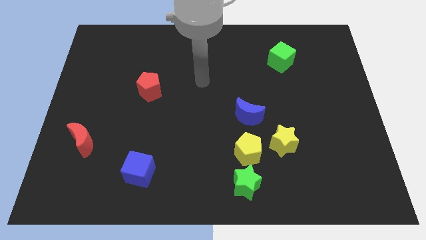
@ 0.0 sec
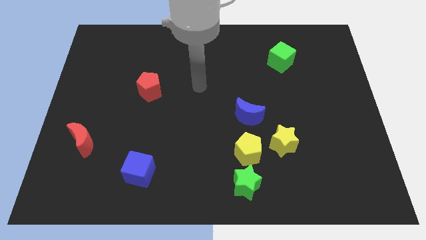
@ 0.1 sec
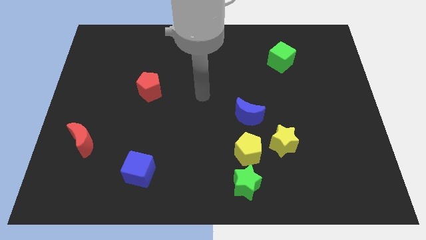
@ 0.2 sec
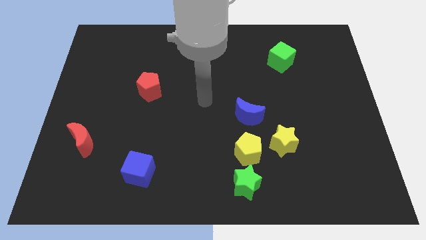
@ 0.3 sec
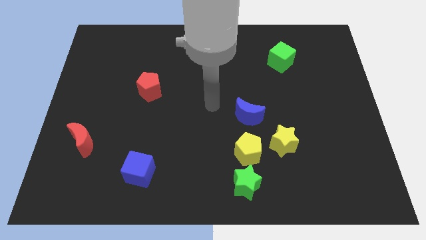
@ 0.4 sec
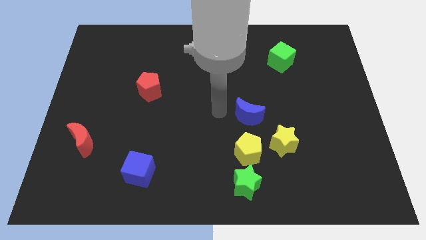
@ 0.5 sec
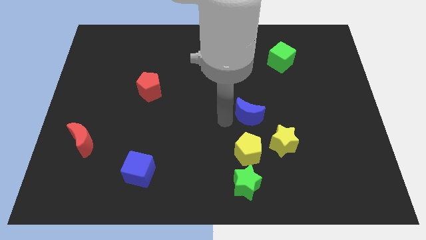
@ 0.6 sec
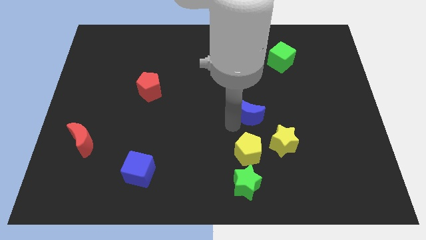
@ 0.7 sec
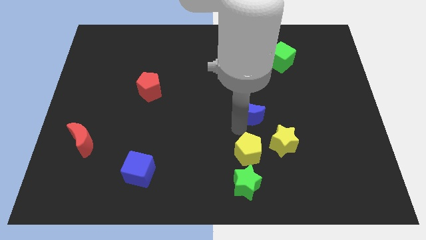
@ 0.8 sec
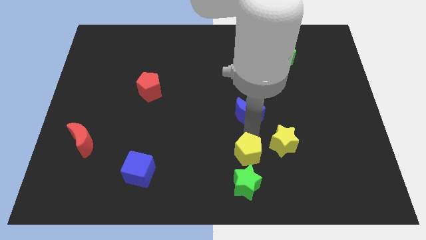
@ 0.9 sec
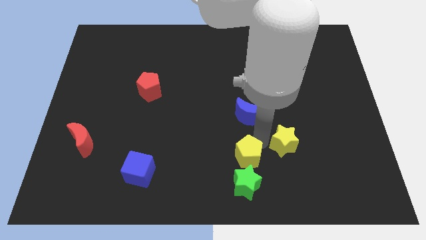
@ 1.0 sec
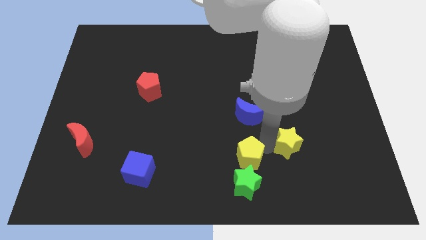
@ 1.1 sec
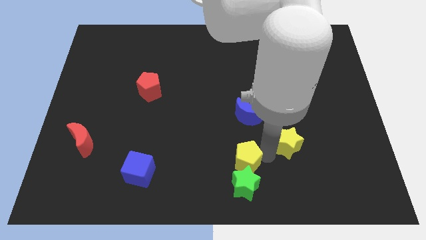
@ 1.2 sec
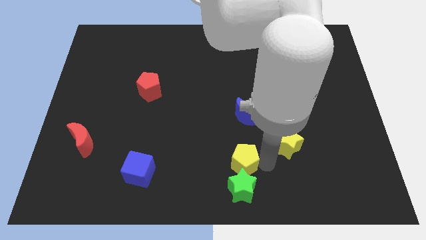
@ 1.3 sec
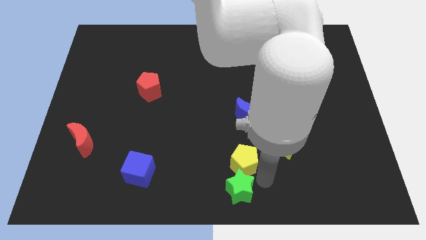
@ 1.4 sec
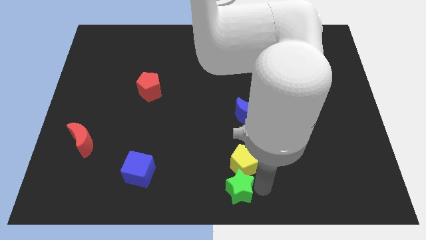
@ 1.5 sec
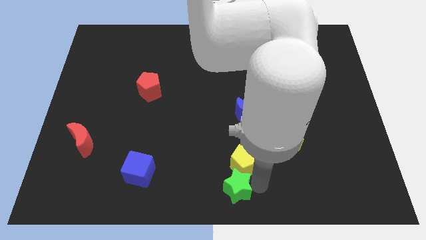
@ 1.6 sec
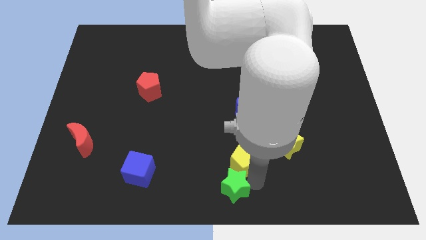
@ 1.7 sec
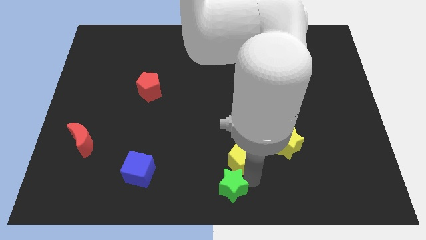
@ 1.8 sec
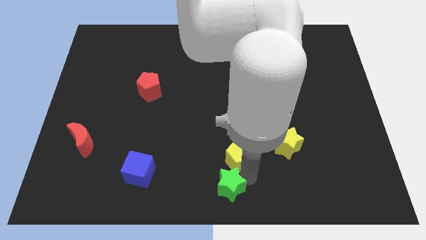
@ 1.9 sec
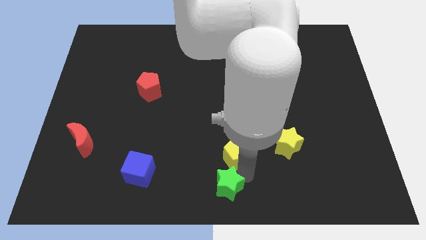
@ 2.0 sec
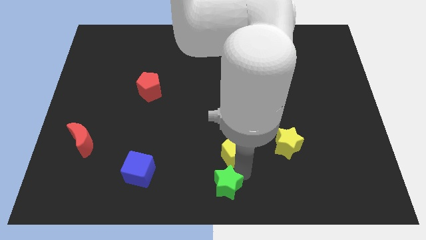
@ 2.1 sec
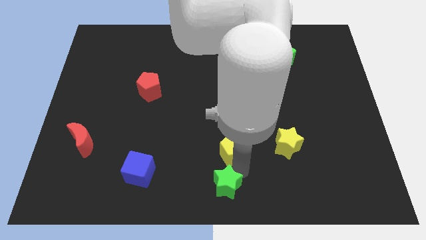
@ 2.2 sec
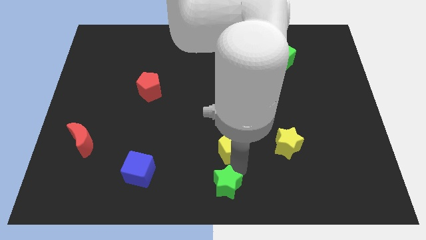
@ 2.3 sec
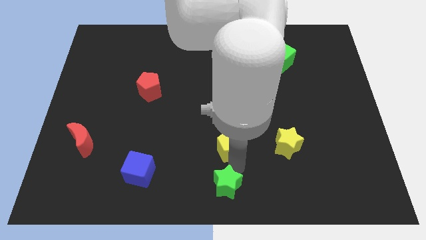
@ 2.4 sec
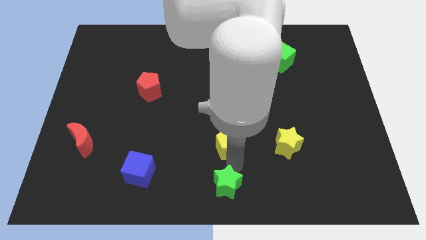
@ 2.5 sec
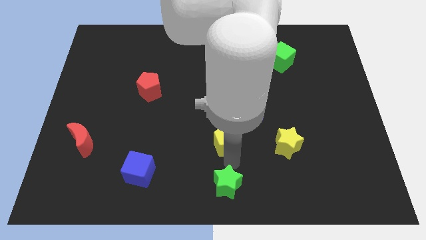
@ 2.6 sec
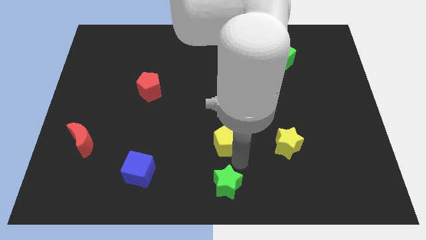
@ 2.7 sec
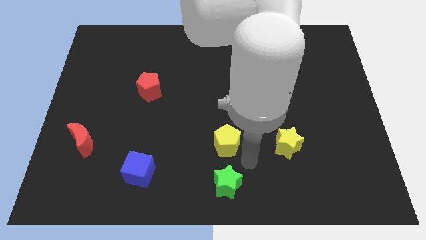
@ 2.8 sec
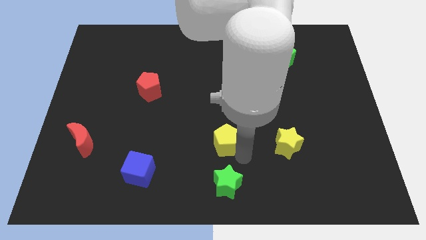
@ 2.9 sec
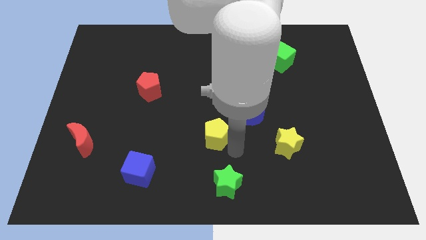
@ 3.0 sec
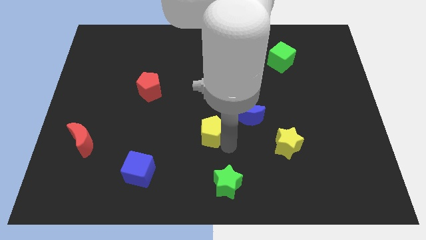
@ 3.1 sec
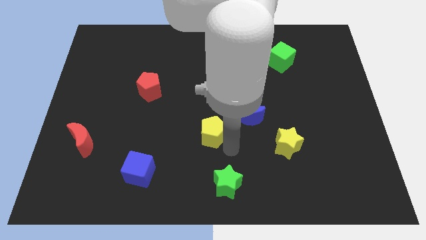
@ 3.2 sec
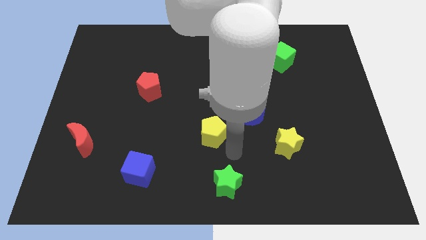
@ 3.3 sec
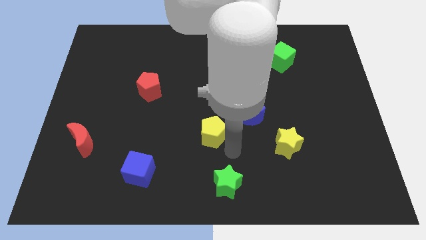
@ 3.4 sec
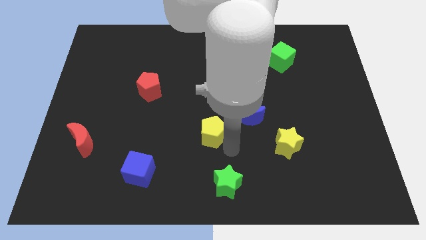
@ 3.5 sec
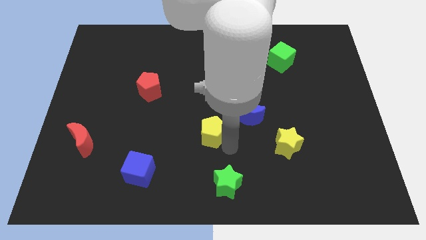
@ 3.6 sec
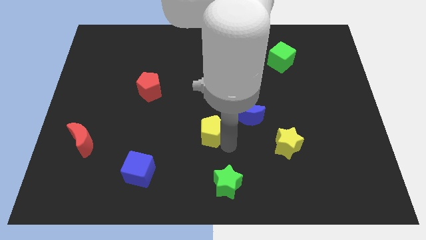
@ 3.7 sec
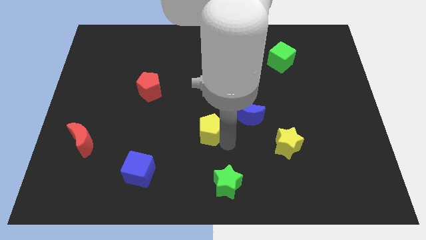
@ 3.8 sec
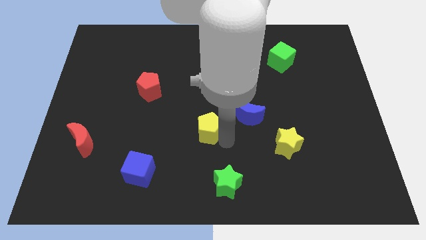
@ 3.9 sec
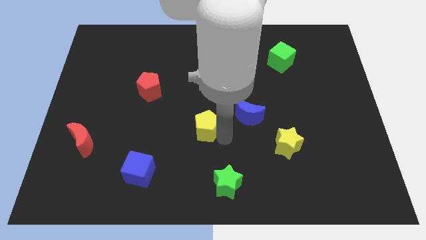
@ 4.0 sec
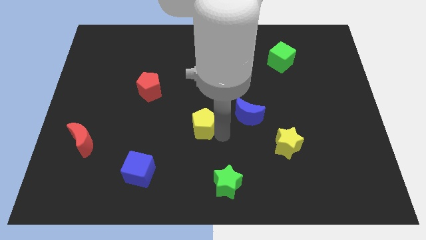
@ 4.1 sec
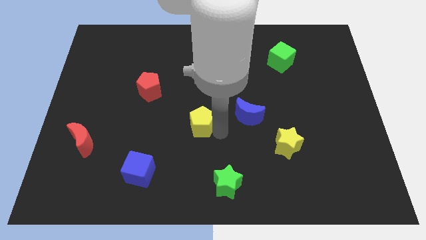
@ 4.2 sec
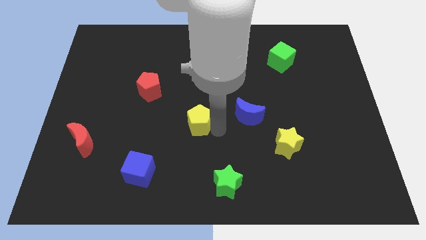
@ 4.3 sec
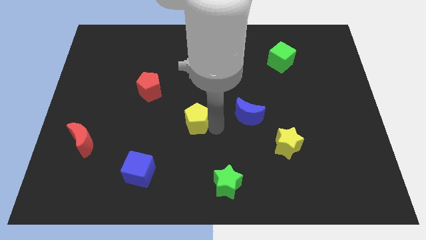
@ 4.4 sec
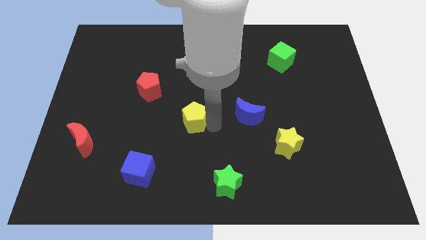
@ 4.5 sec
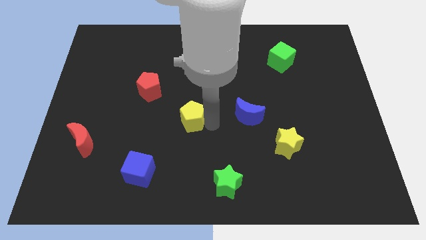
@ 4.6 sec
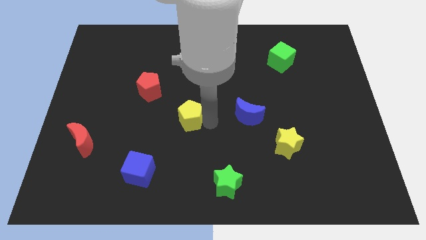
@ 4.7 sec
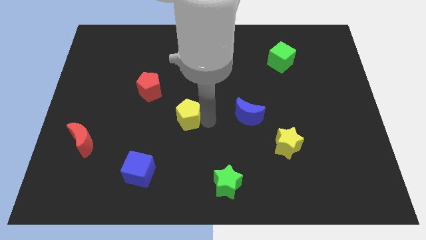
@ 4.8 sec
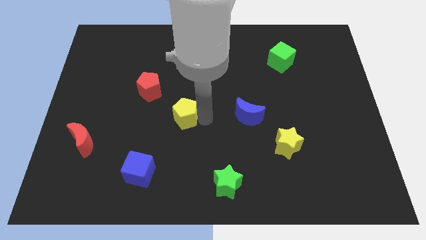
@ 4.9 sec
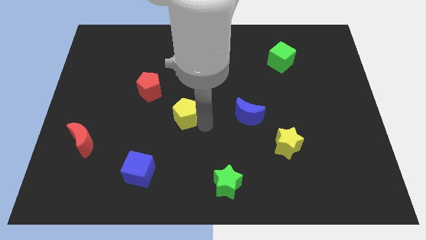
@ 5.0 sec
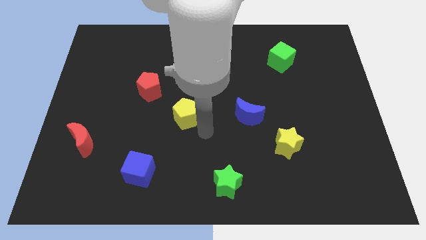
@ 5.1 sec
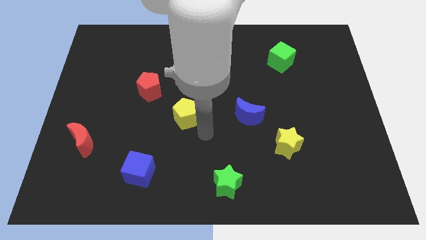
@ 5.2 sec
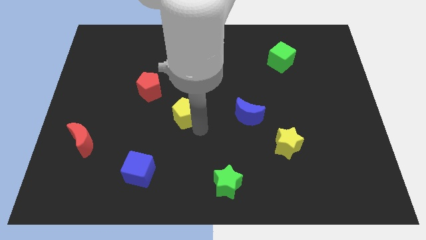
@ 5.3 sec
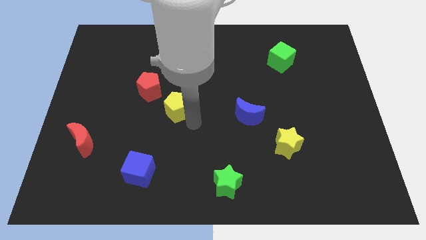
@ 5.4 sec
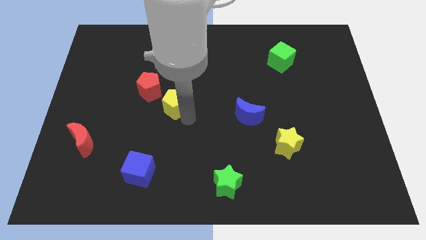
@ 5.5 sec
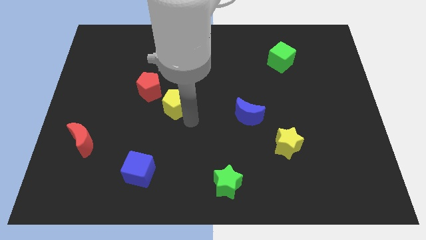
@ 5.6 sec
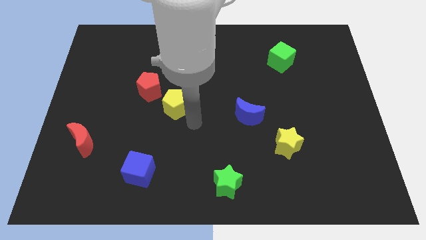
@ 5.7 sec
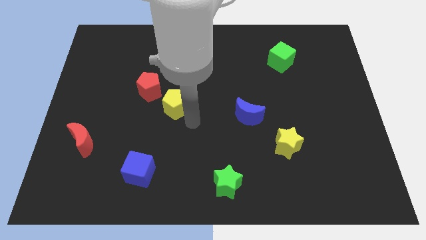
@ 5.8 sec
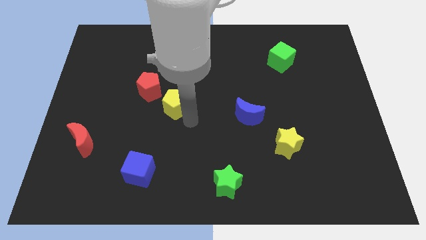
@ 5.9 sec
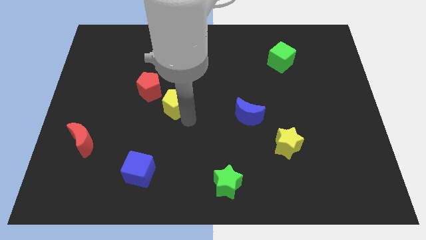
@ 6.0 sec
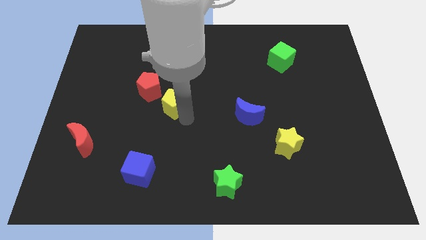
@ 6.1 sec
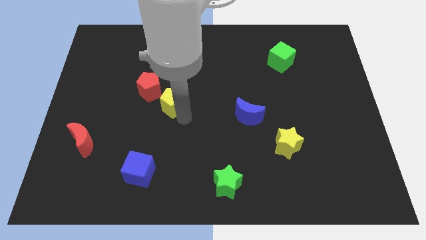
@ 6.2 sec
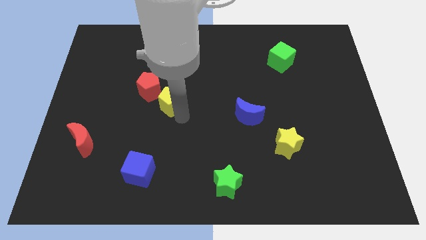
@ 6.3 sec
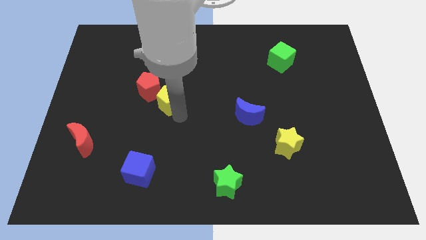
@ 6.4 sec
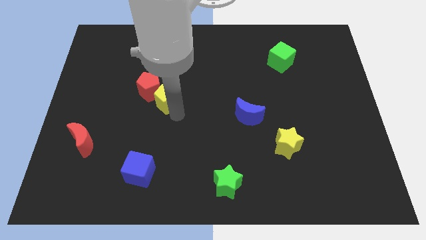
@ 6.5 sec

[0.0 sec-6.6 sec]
move the yellow pentagon close to the red pentagon
